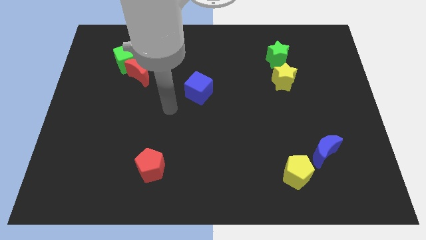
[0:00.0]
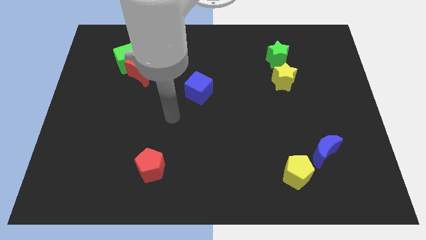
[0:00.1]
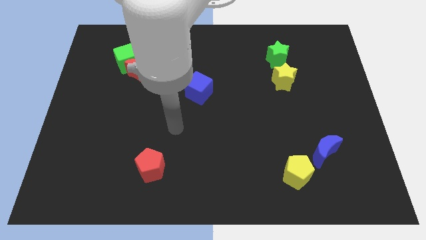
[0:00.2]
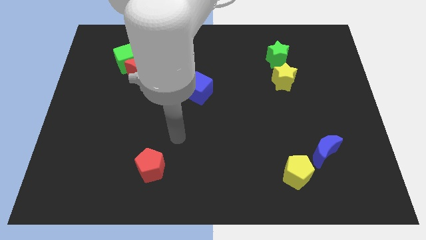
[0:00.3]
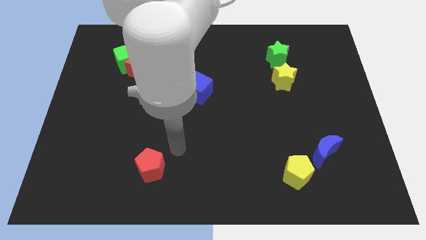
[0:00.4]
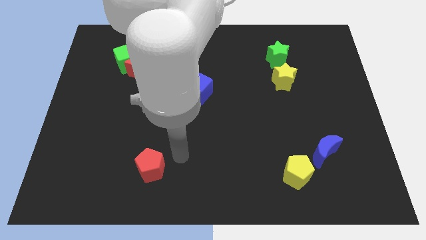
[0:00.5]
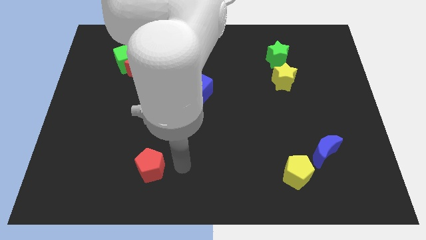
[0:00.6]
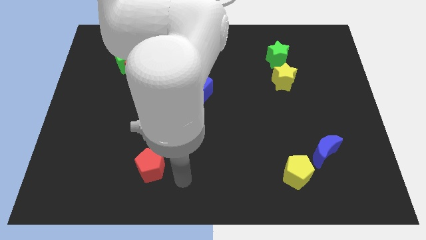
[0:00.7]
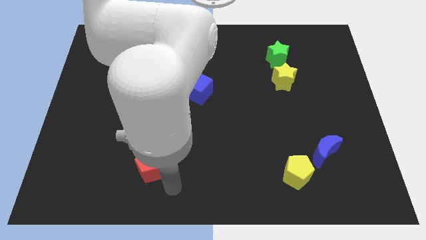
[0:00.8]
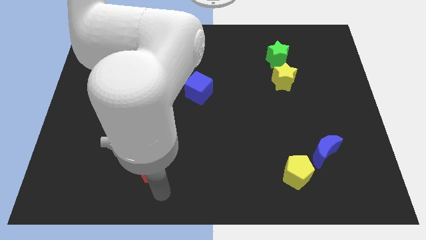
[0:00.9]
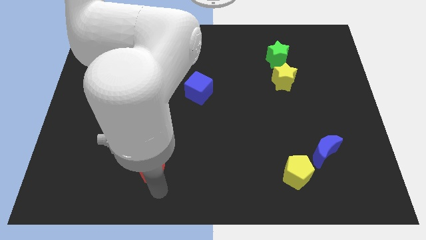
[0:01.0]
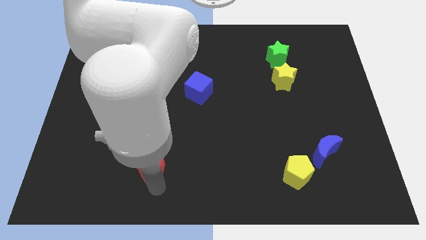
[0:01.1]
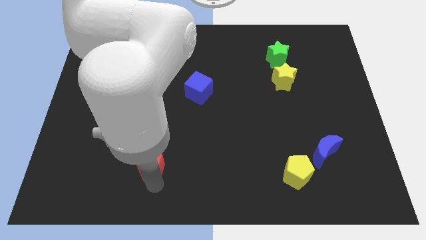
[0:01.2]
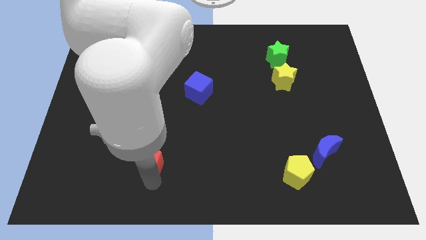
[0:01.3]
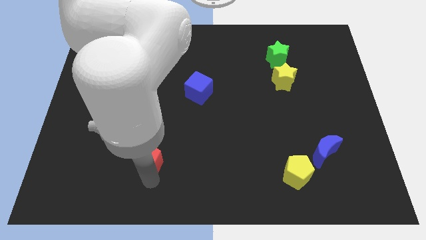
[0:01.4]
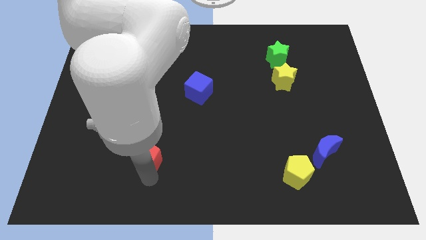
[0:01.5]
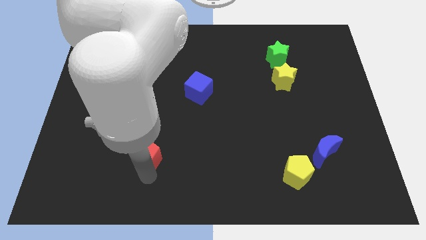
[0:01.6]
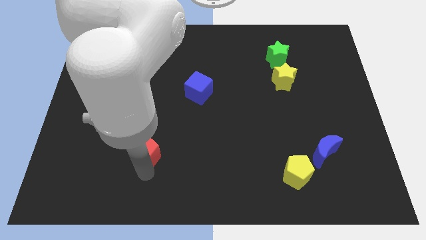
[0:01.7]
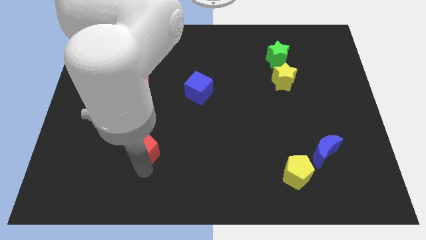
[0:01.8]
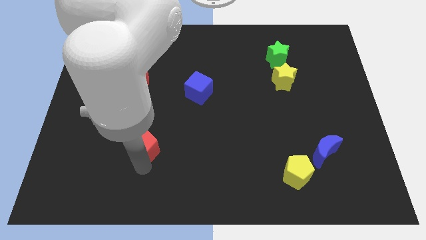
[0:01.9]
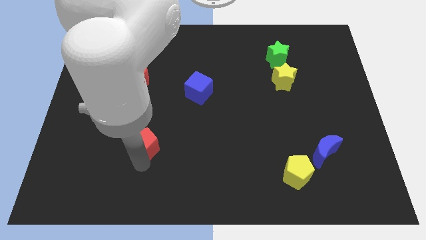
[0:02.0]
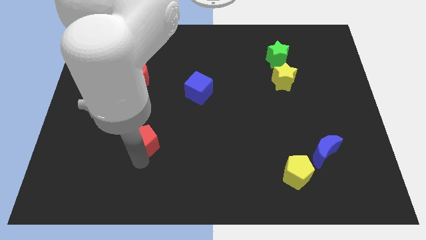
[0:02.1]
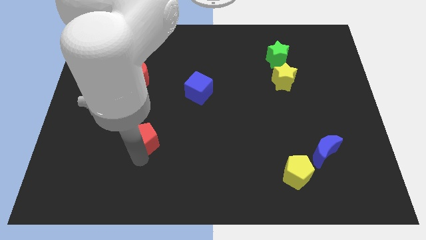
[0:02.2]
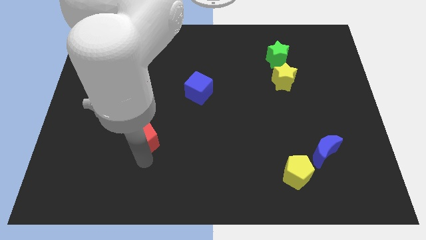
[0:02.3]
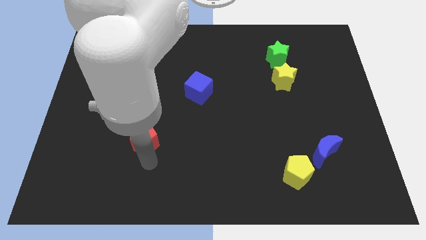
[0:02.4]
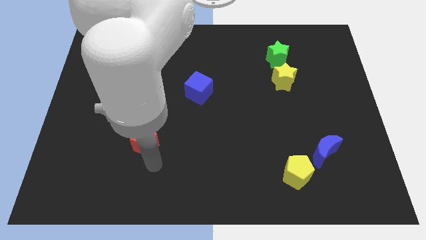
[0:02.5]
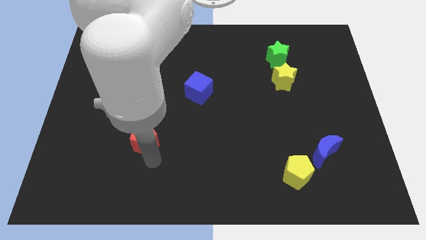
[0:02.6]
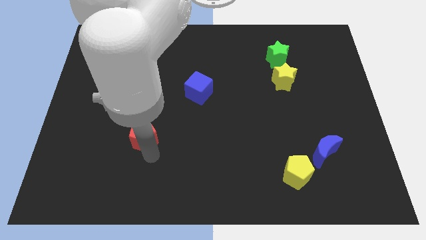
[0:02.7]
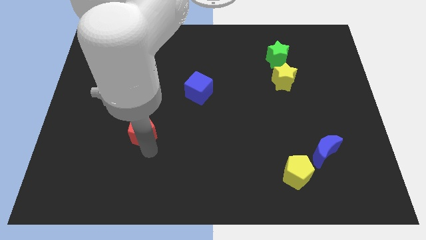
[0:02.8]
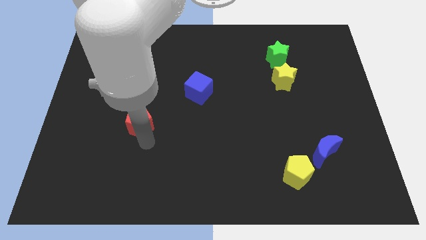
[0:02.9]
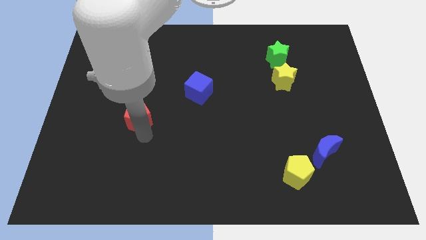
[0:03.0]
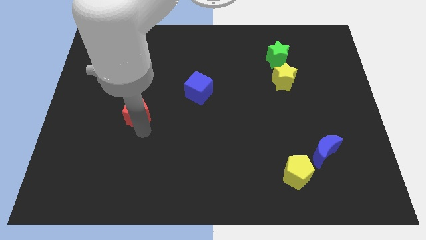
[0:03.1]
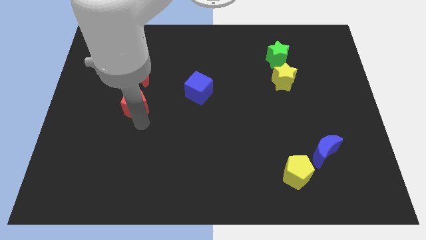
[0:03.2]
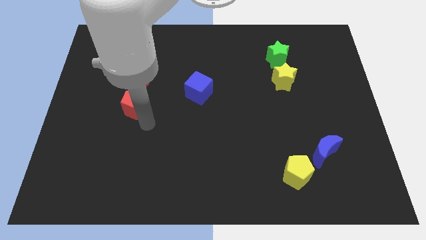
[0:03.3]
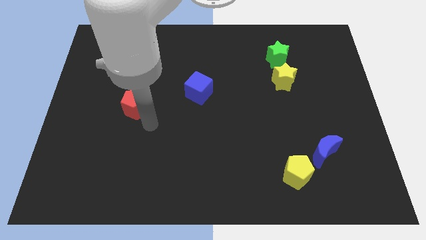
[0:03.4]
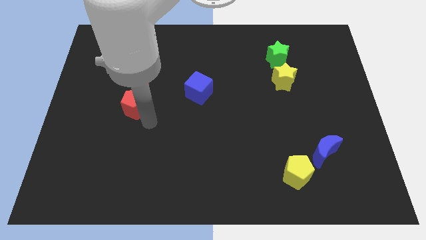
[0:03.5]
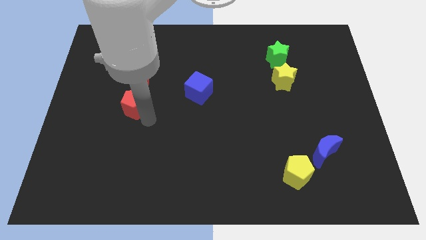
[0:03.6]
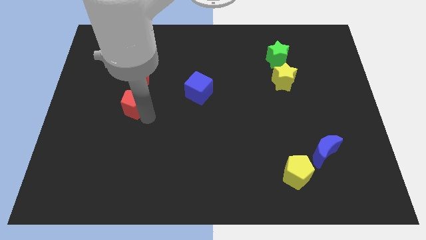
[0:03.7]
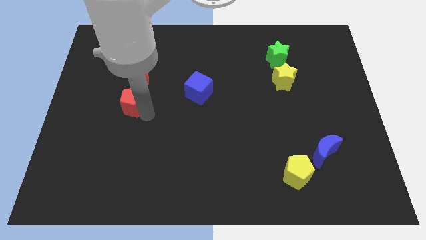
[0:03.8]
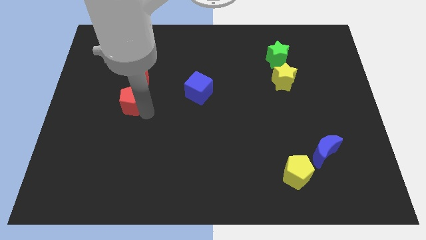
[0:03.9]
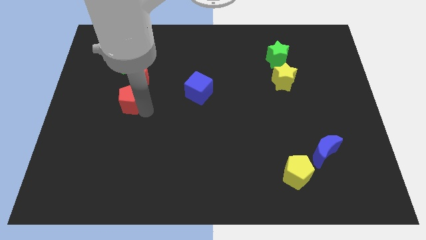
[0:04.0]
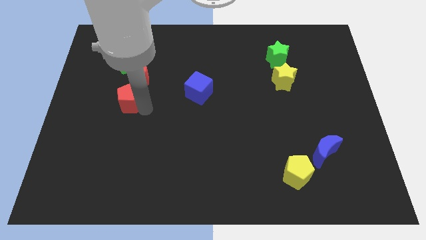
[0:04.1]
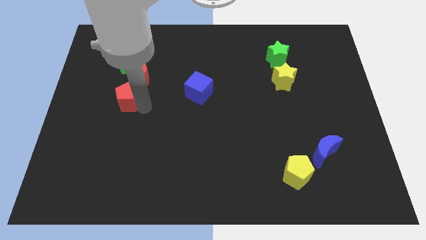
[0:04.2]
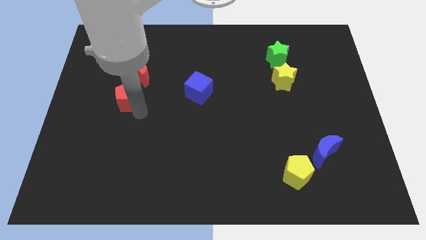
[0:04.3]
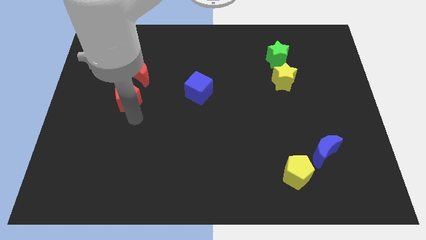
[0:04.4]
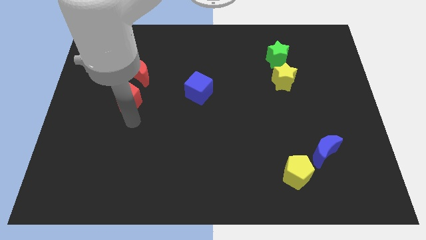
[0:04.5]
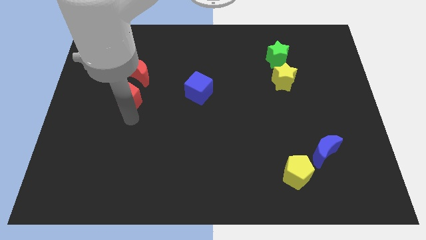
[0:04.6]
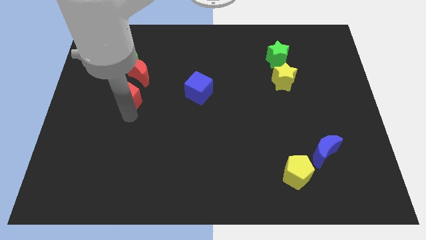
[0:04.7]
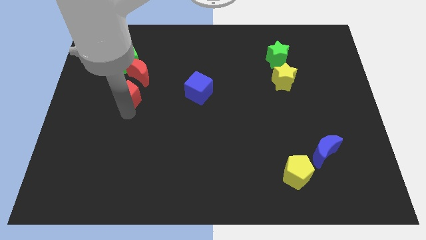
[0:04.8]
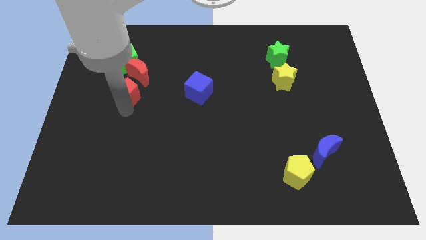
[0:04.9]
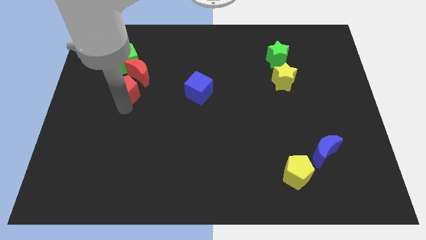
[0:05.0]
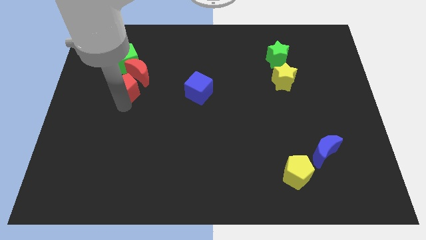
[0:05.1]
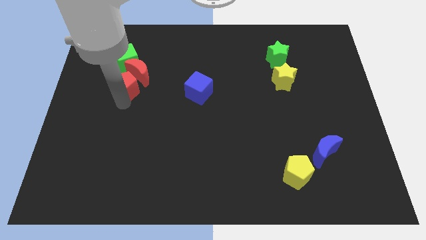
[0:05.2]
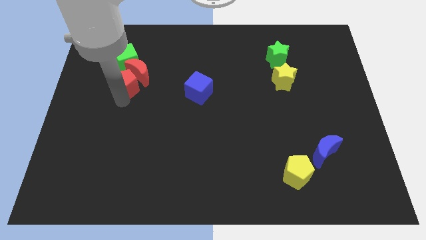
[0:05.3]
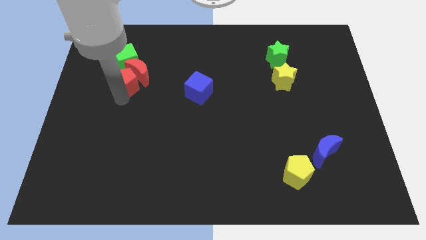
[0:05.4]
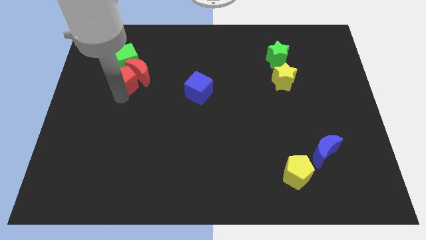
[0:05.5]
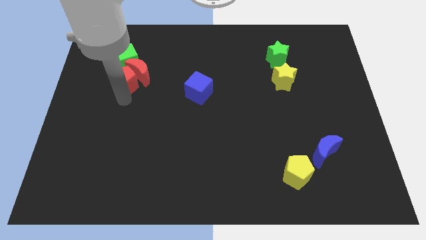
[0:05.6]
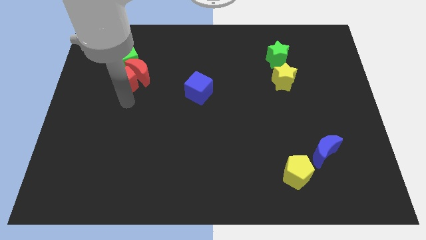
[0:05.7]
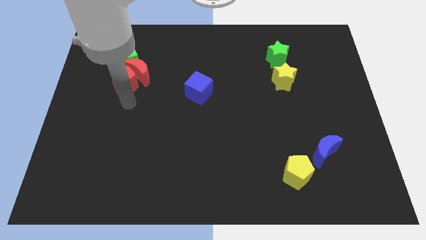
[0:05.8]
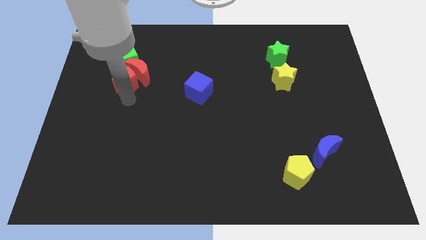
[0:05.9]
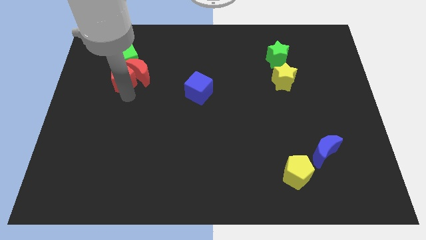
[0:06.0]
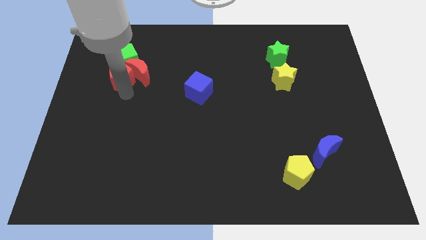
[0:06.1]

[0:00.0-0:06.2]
push the red pentagon next to the green cube

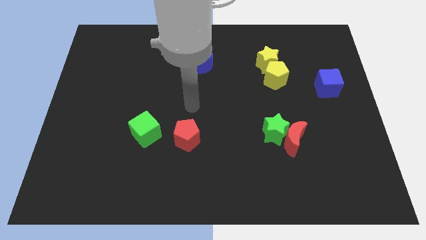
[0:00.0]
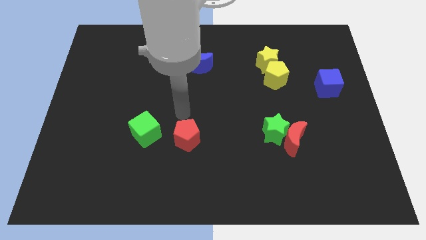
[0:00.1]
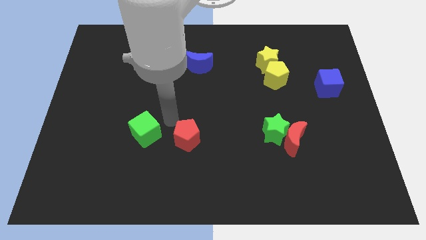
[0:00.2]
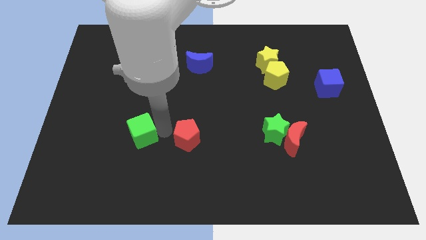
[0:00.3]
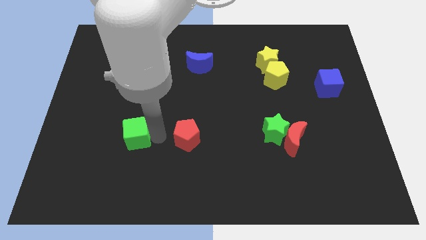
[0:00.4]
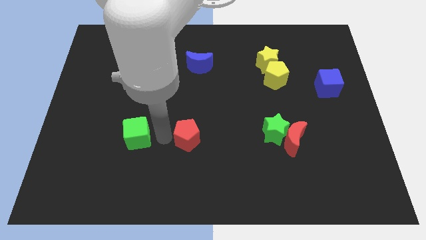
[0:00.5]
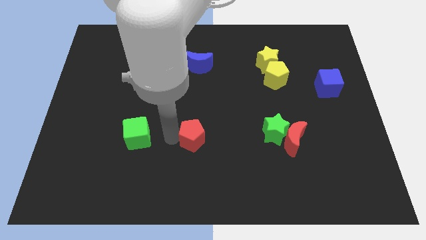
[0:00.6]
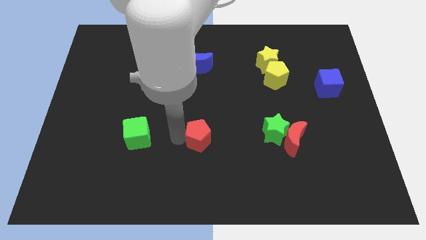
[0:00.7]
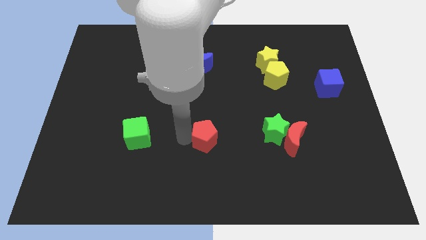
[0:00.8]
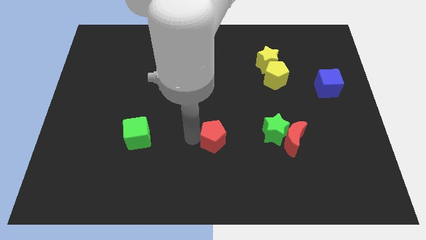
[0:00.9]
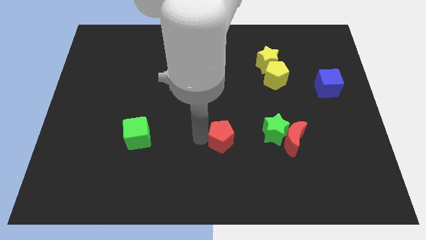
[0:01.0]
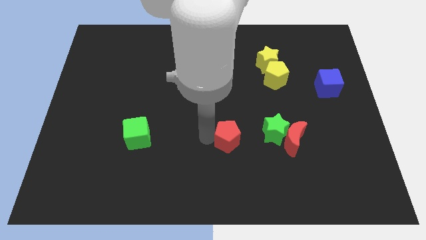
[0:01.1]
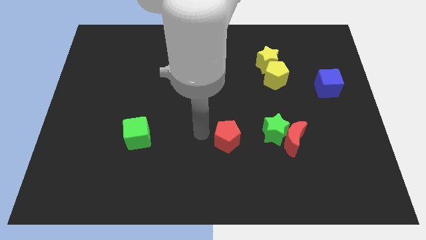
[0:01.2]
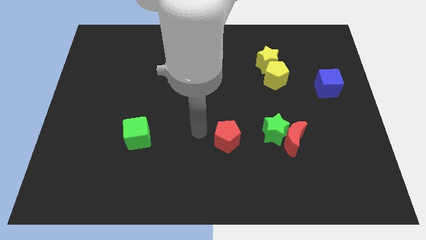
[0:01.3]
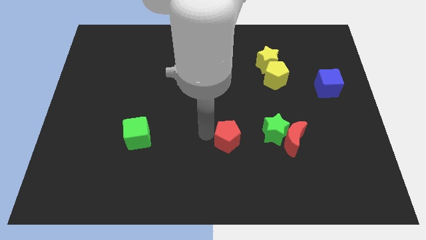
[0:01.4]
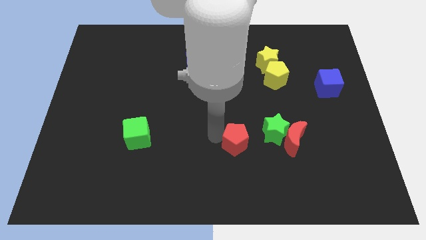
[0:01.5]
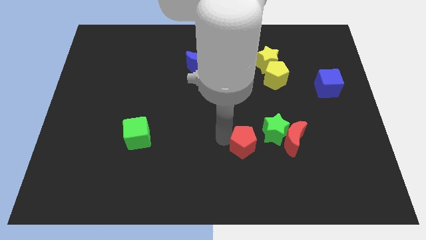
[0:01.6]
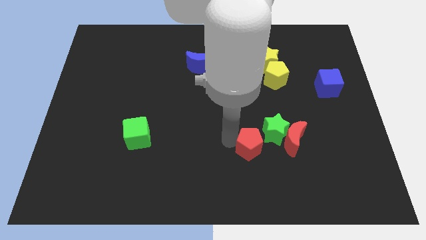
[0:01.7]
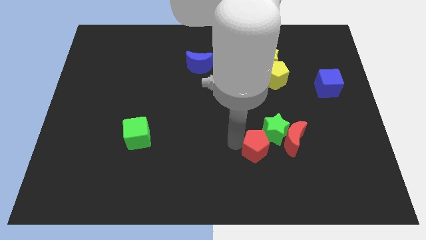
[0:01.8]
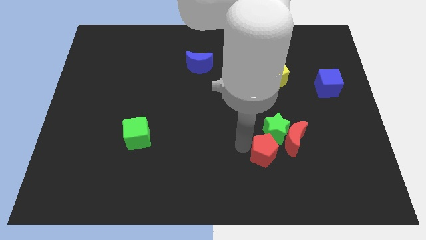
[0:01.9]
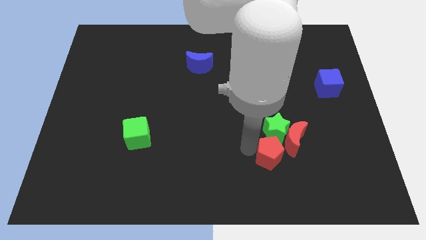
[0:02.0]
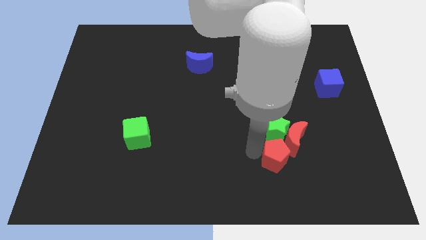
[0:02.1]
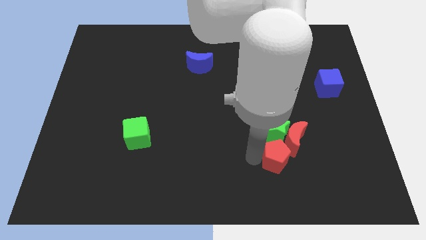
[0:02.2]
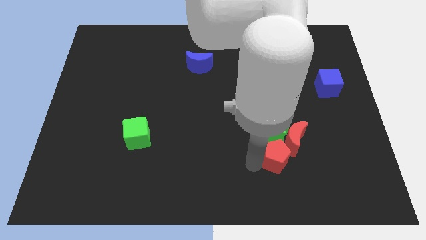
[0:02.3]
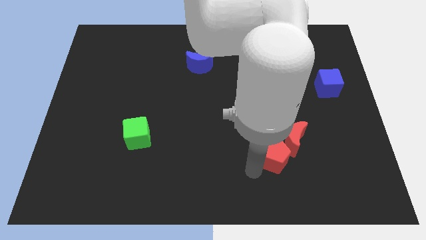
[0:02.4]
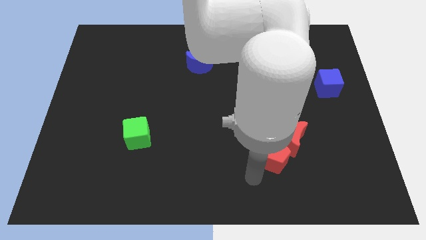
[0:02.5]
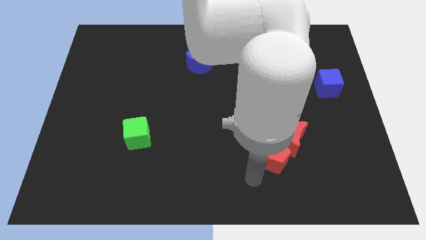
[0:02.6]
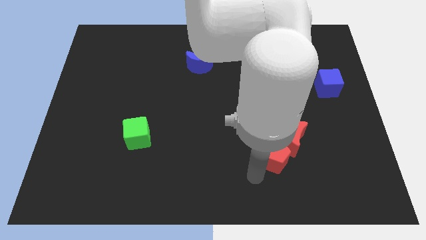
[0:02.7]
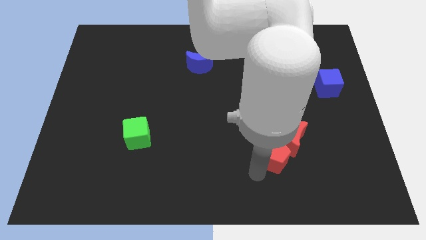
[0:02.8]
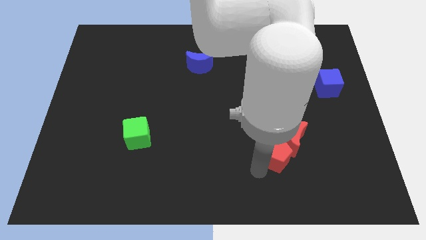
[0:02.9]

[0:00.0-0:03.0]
move the red pentagon to the red moon
